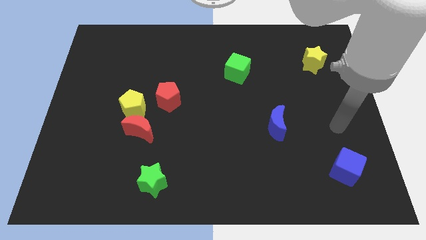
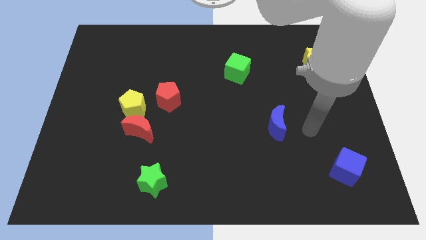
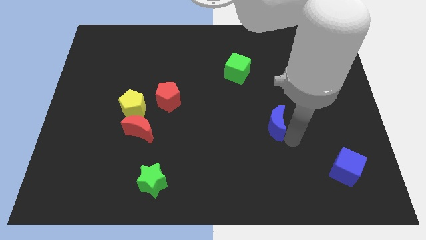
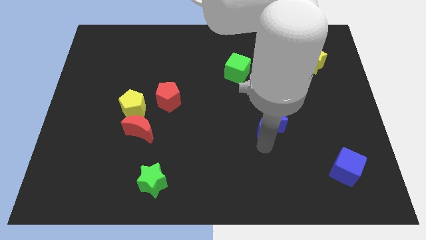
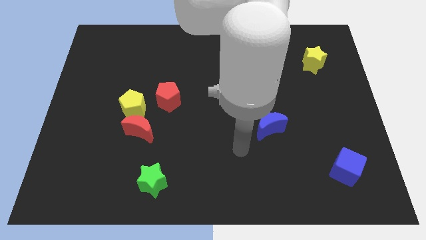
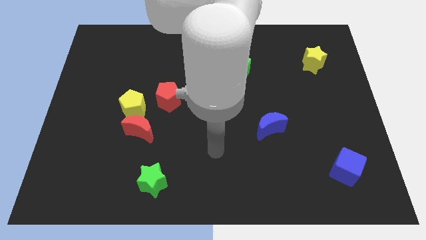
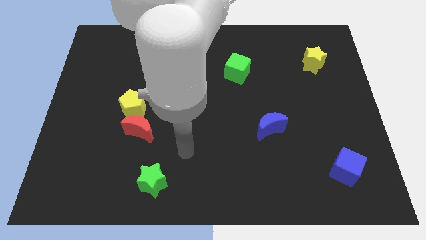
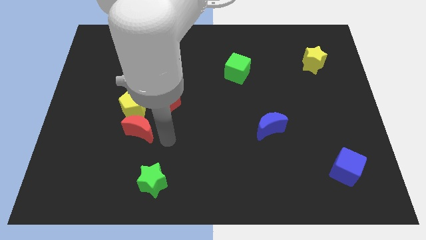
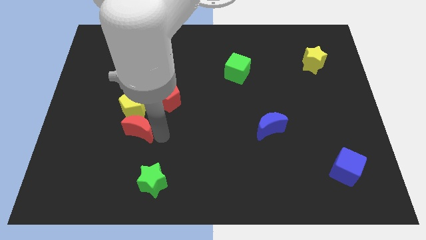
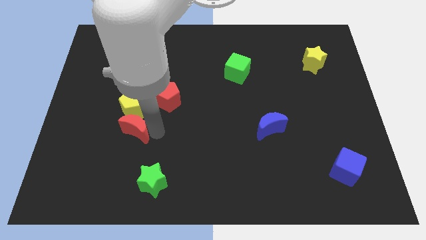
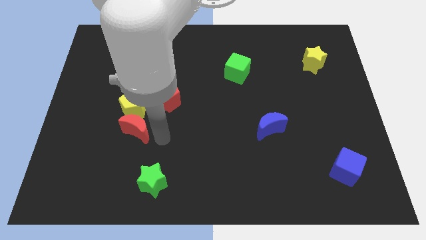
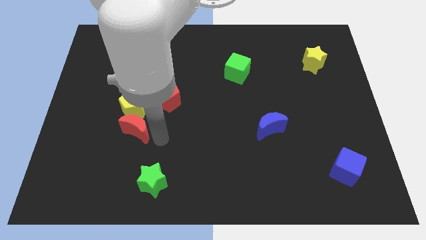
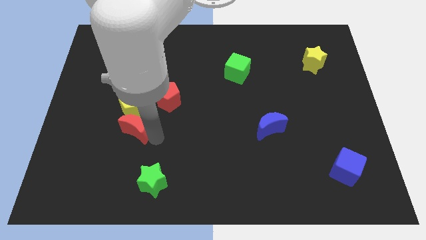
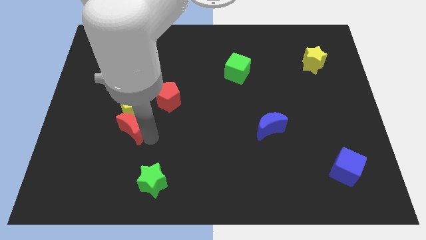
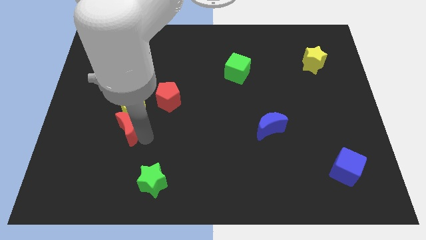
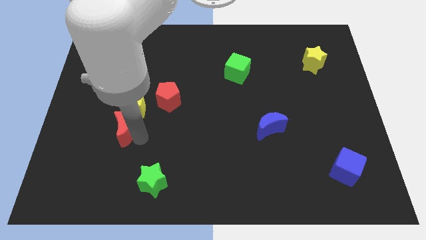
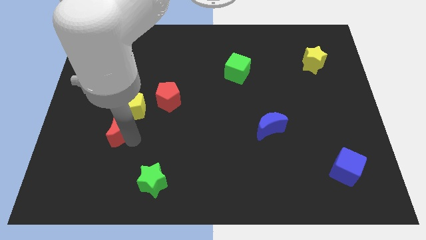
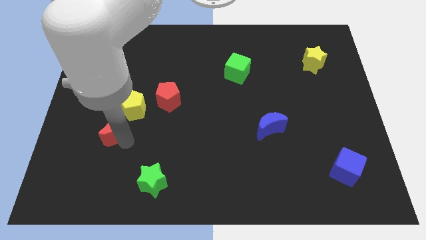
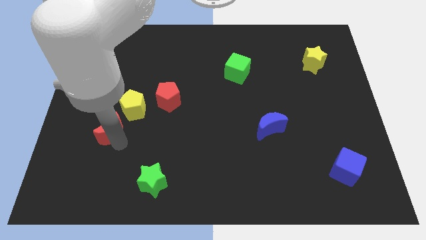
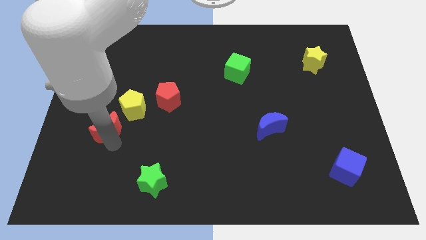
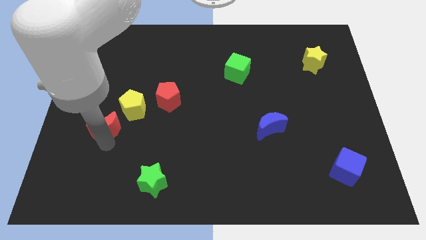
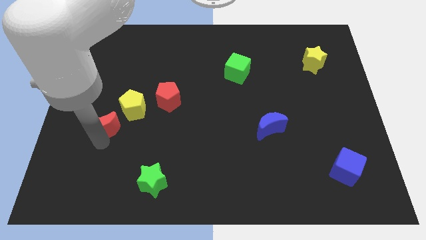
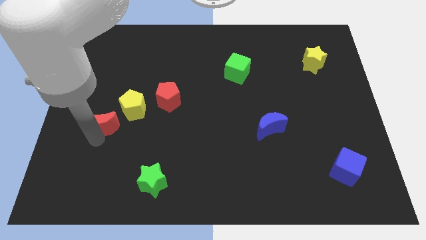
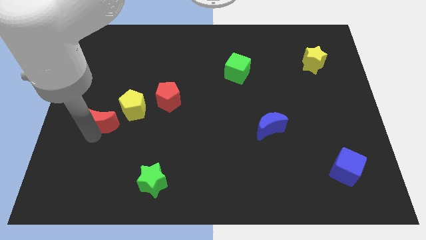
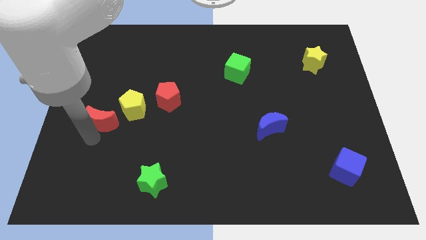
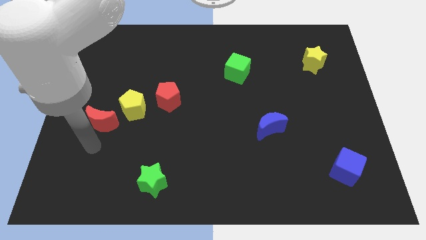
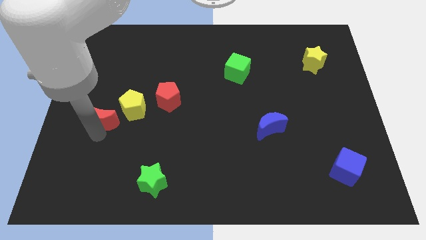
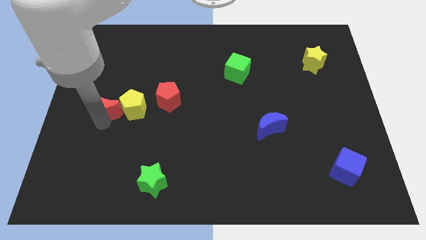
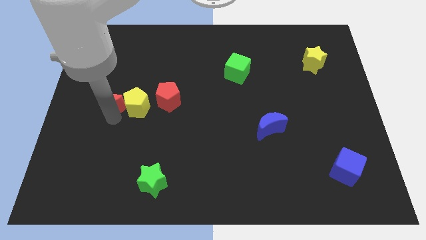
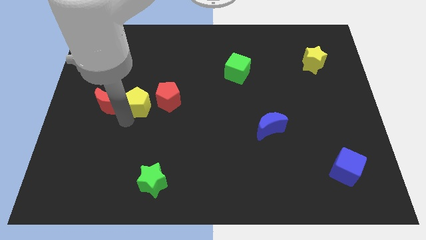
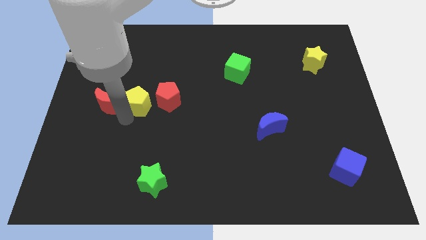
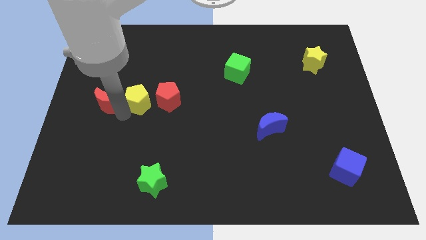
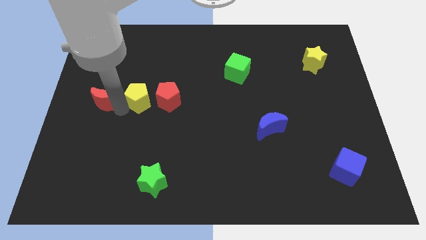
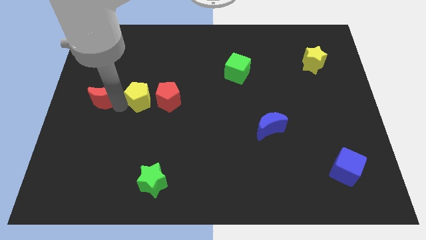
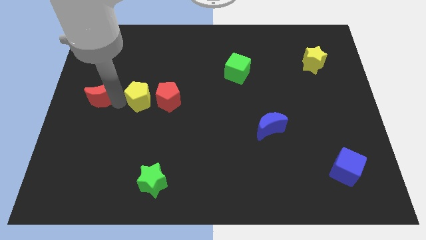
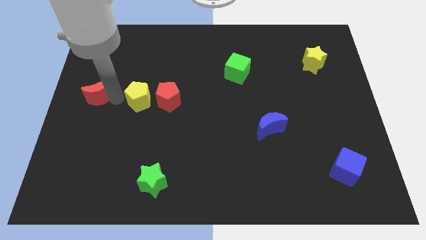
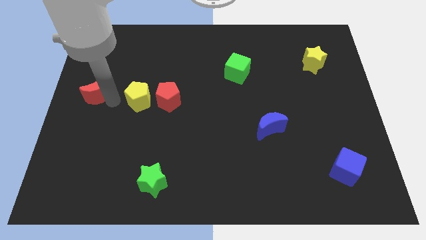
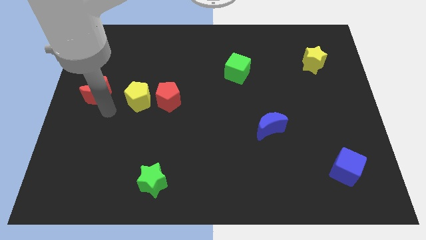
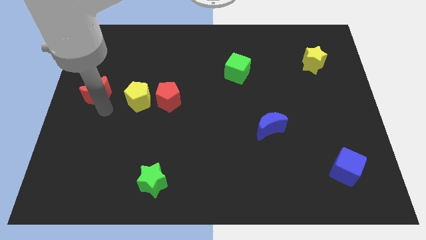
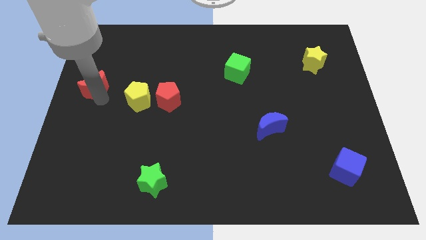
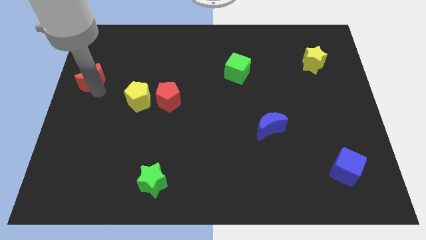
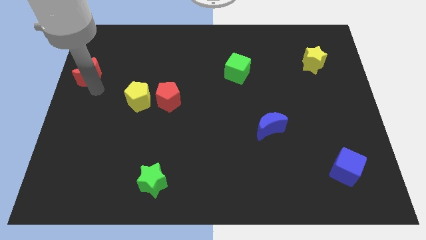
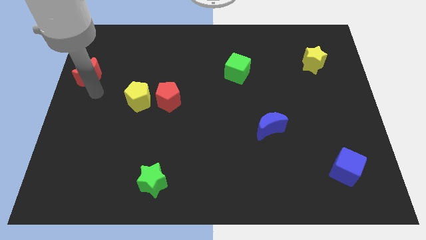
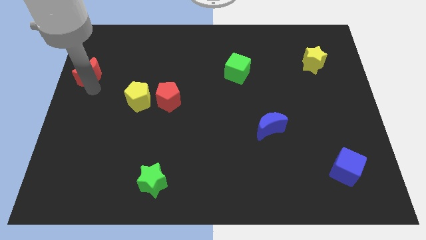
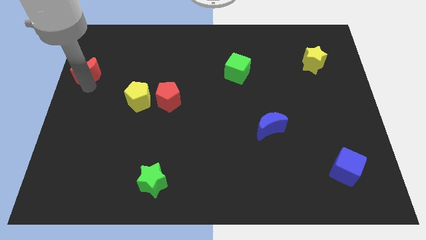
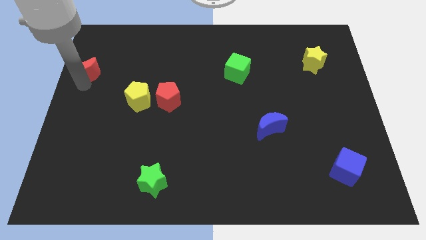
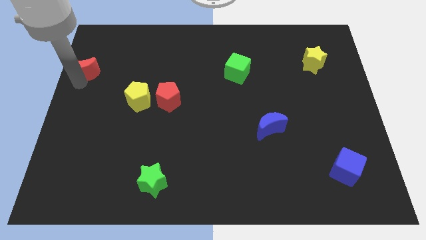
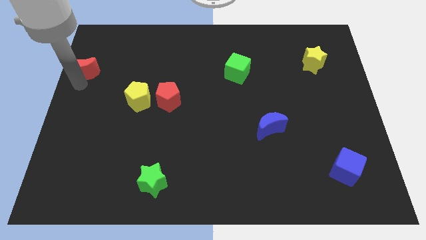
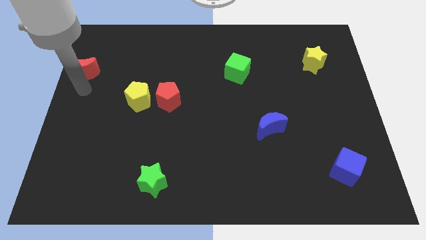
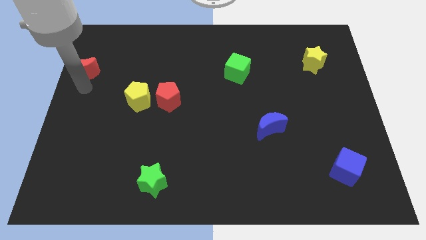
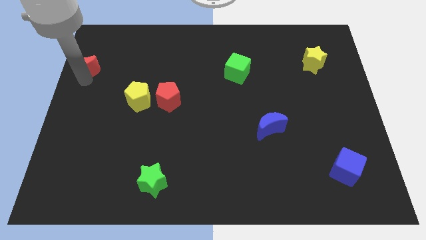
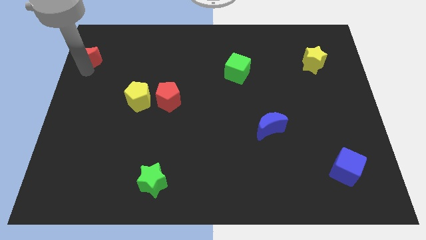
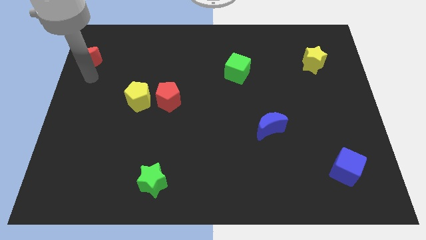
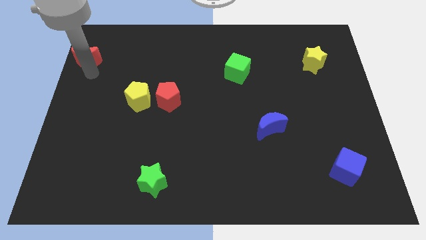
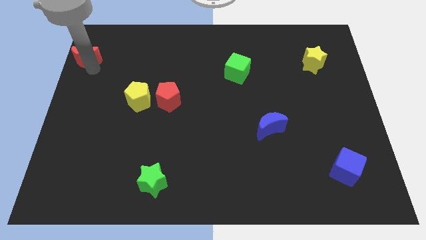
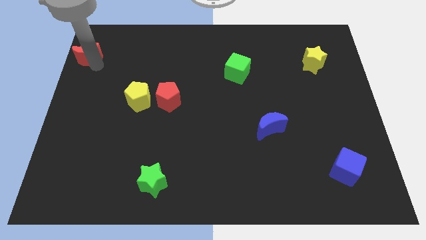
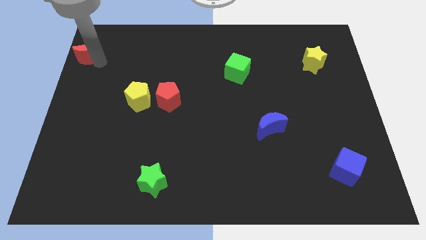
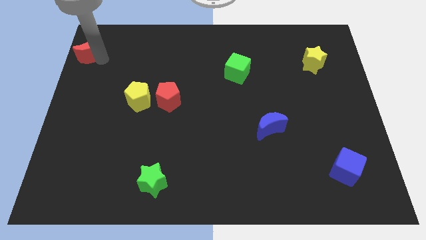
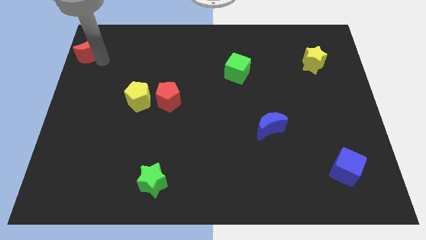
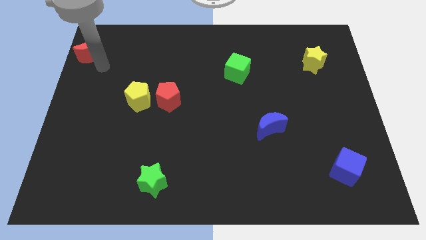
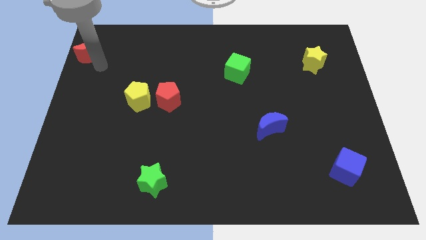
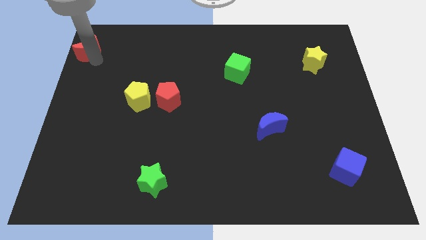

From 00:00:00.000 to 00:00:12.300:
push the red moon to the top left corner
